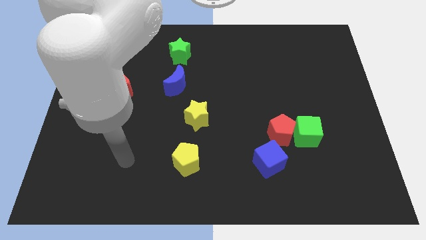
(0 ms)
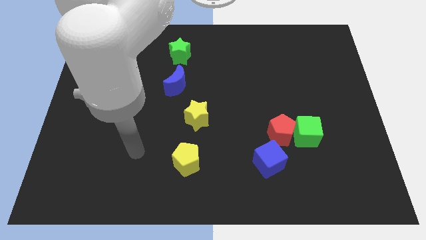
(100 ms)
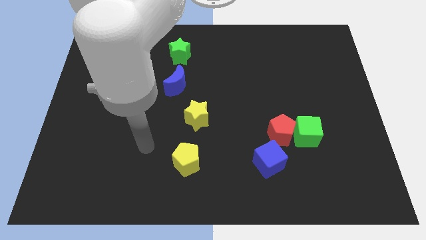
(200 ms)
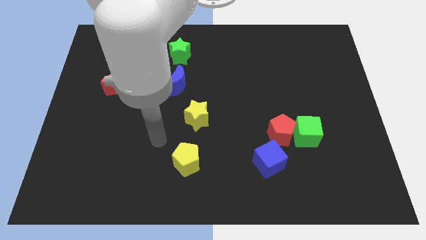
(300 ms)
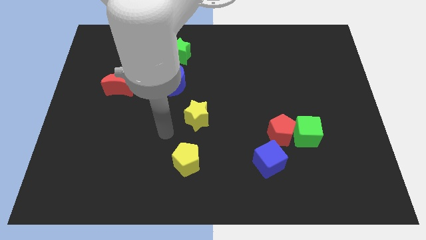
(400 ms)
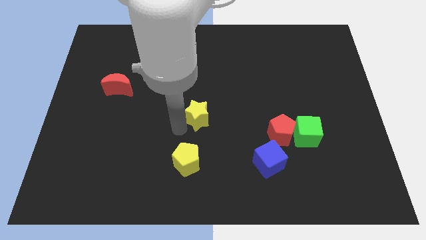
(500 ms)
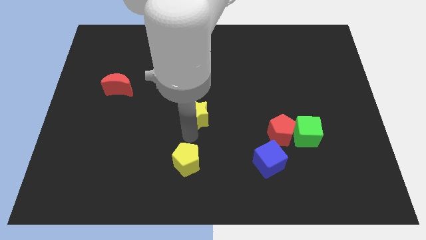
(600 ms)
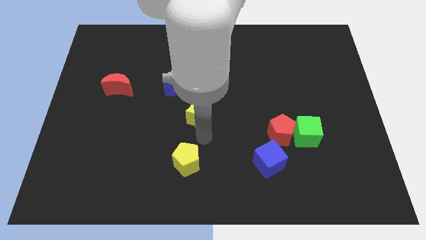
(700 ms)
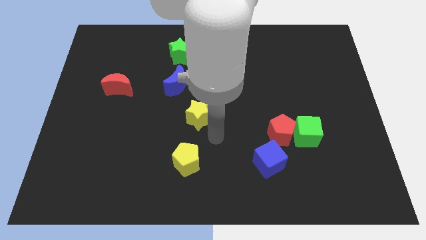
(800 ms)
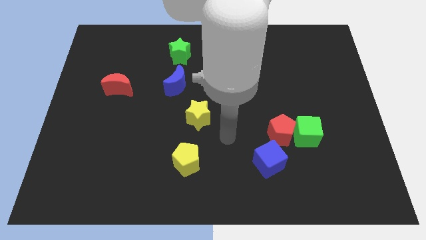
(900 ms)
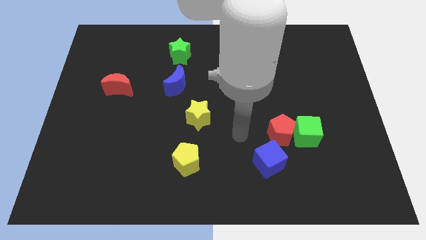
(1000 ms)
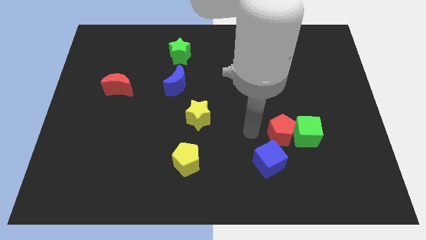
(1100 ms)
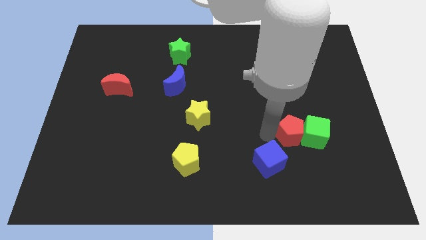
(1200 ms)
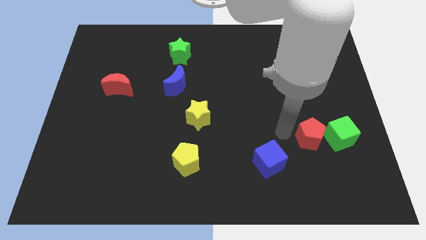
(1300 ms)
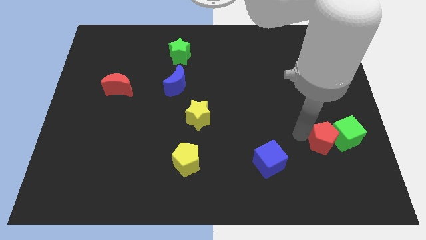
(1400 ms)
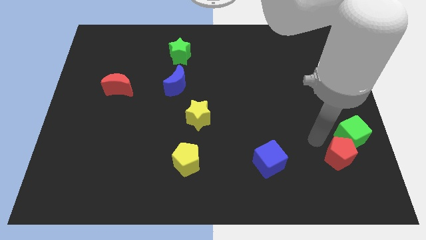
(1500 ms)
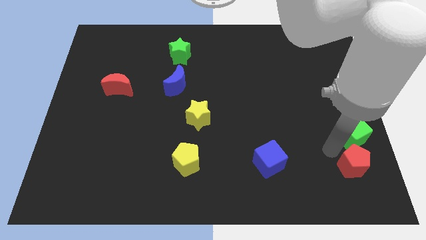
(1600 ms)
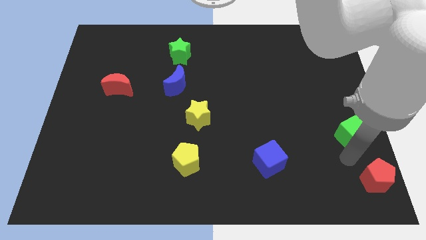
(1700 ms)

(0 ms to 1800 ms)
pull the green cube apart from the red pentagon

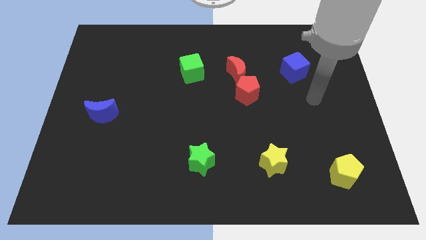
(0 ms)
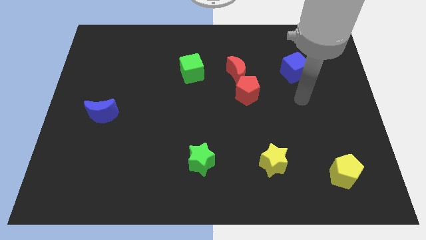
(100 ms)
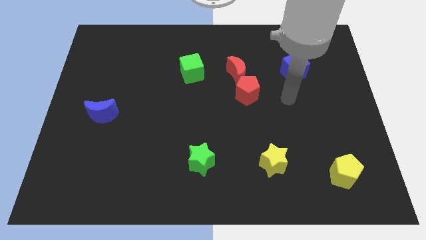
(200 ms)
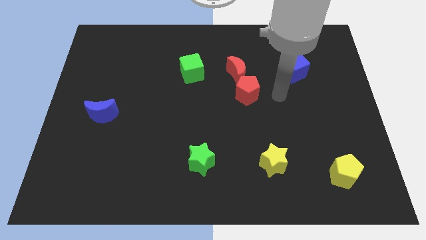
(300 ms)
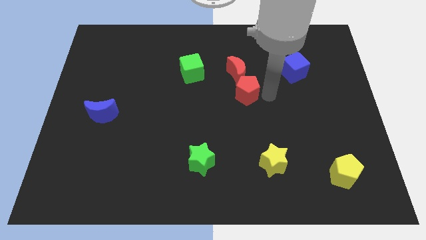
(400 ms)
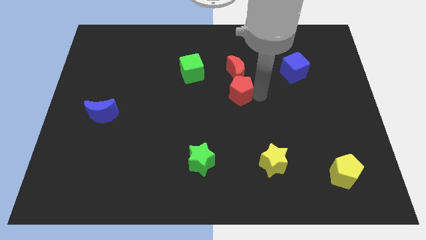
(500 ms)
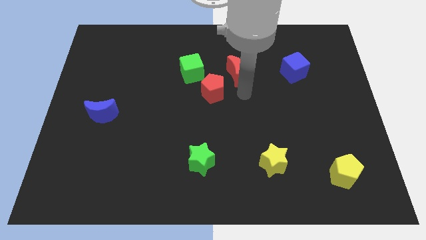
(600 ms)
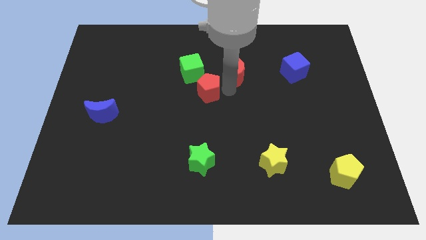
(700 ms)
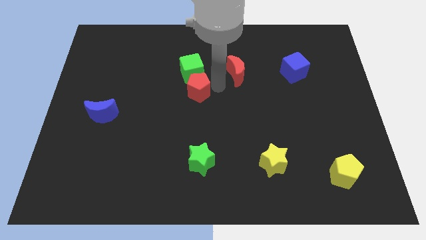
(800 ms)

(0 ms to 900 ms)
move the red moon away from the red pentagon

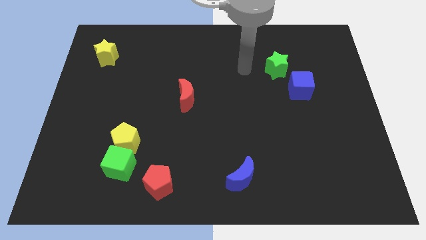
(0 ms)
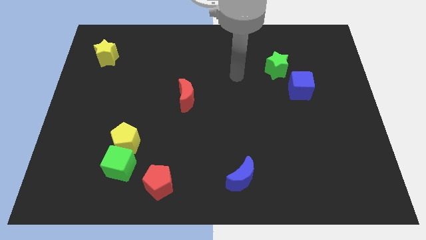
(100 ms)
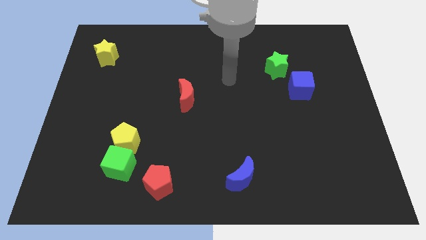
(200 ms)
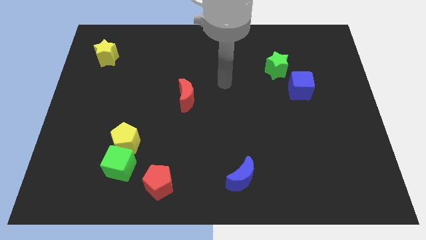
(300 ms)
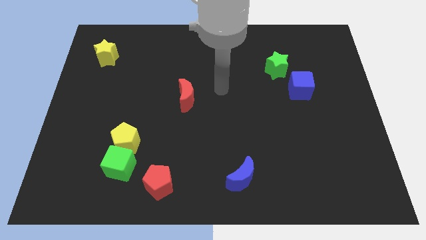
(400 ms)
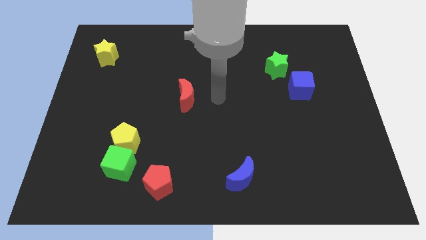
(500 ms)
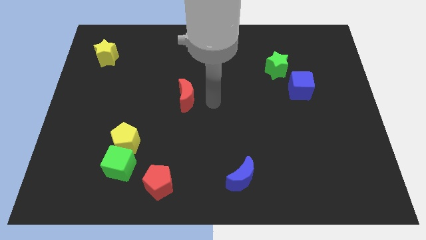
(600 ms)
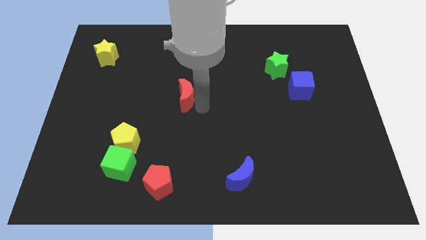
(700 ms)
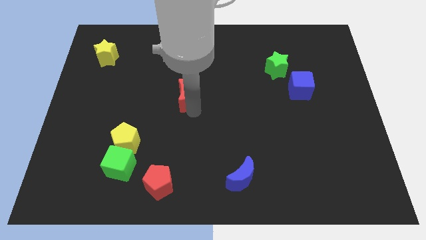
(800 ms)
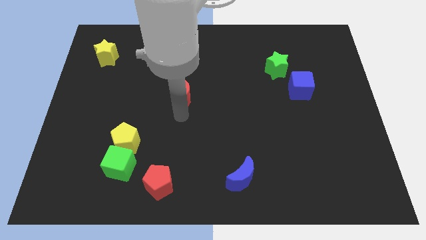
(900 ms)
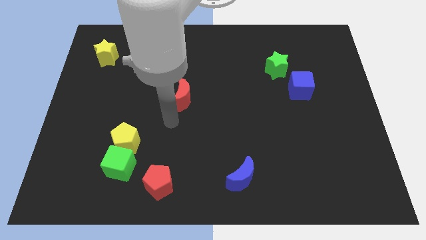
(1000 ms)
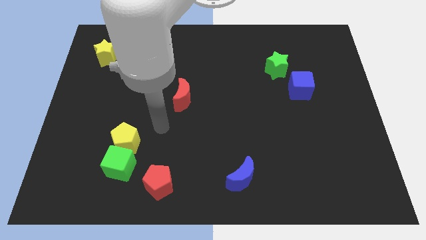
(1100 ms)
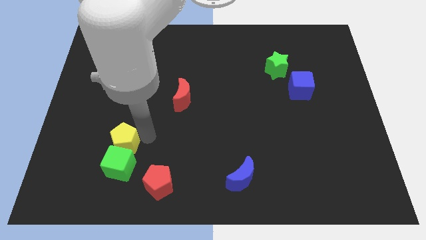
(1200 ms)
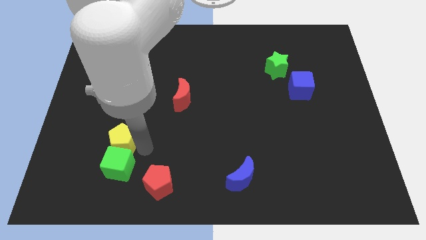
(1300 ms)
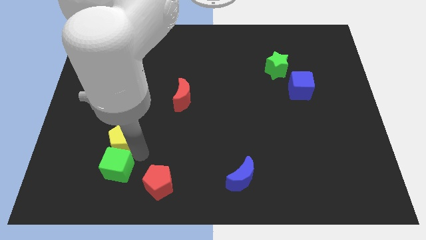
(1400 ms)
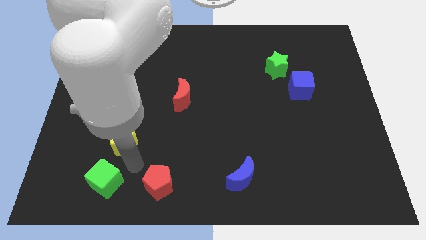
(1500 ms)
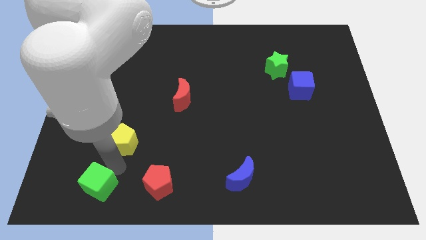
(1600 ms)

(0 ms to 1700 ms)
pull the yellow pentagon apart from the green cube

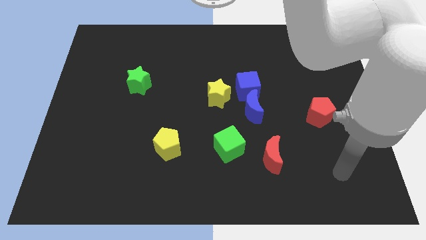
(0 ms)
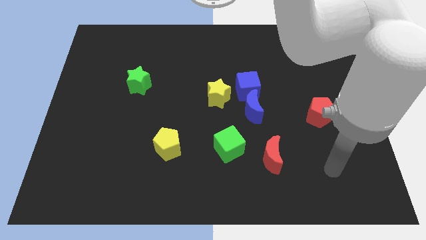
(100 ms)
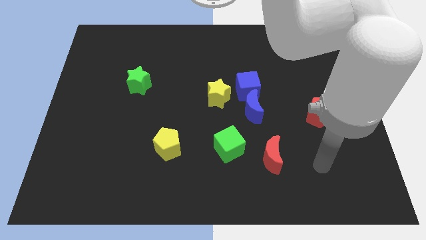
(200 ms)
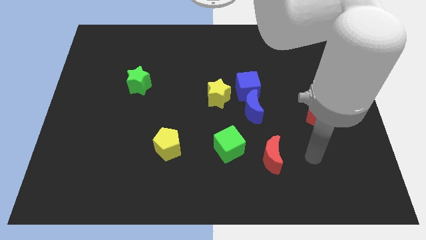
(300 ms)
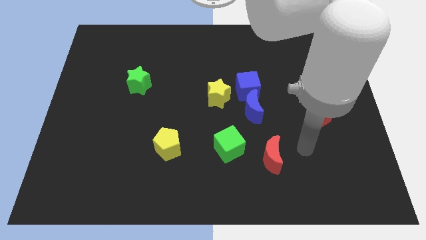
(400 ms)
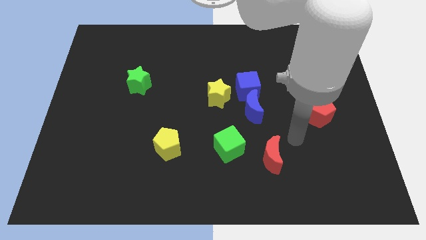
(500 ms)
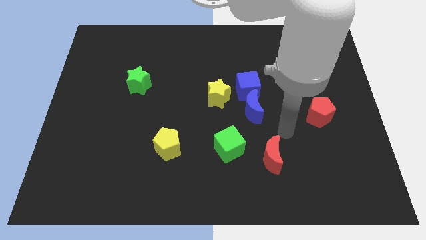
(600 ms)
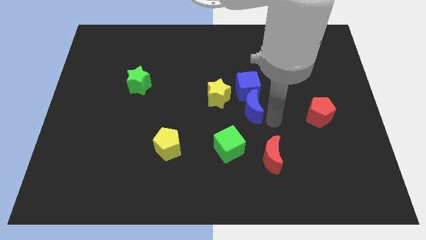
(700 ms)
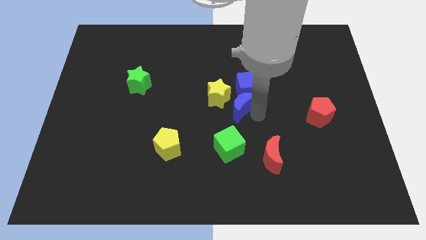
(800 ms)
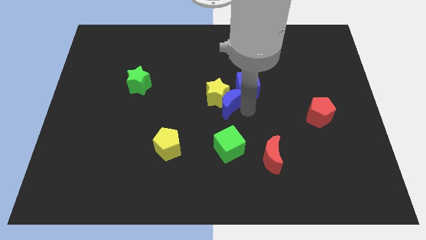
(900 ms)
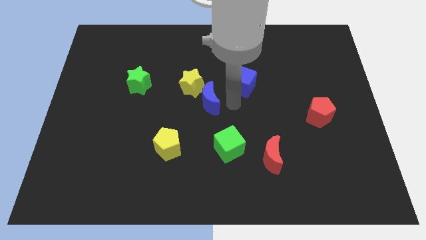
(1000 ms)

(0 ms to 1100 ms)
move the blue cube away from the blue moon and yellow star

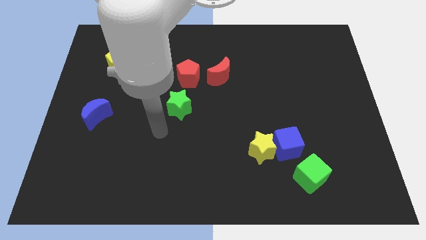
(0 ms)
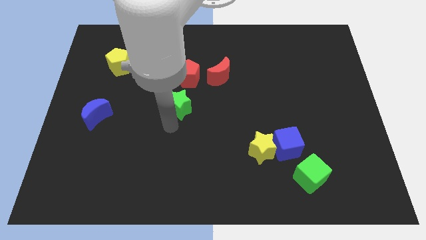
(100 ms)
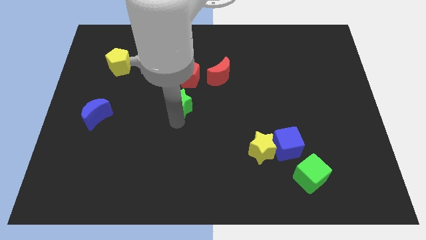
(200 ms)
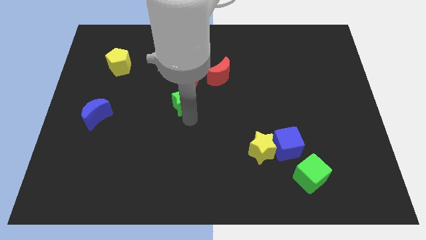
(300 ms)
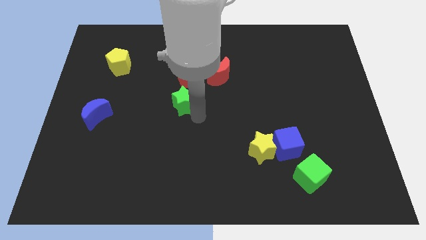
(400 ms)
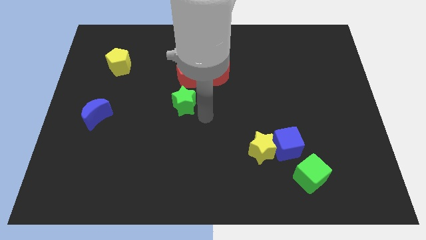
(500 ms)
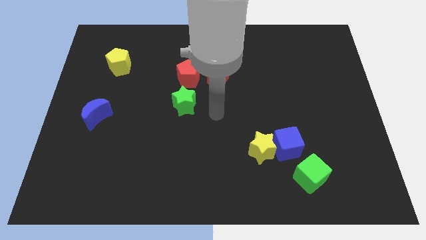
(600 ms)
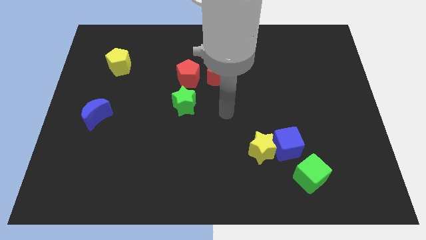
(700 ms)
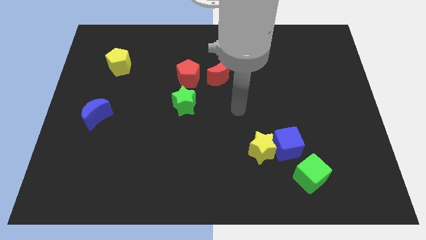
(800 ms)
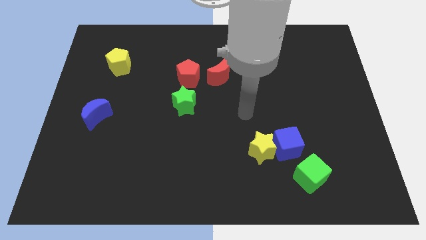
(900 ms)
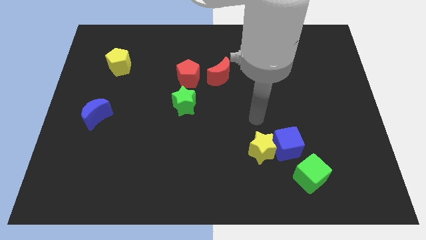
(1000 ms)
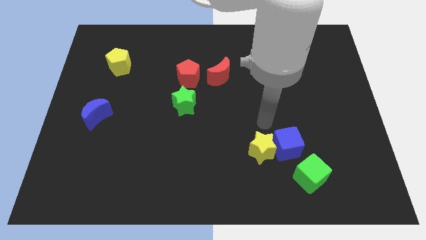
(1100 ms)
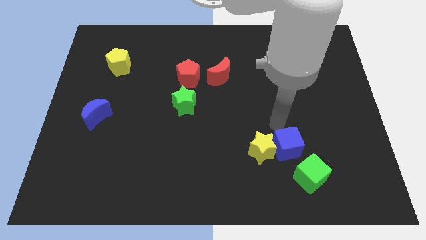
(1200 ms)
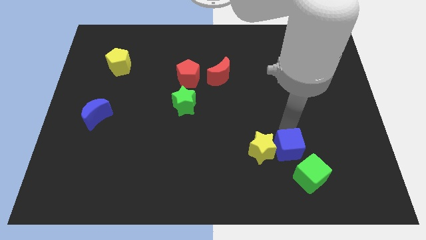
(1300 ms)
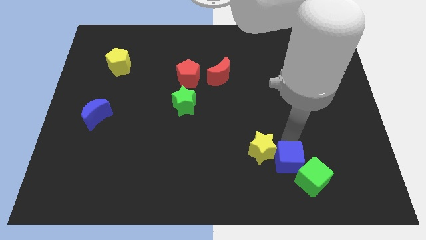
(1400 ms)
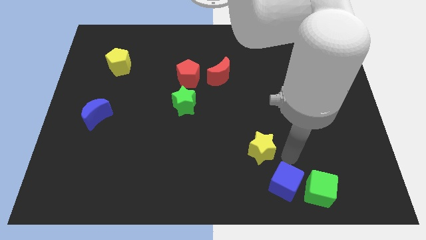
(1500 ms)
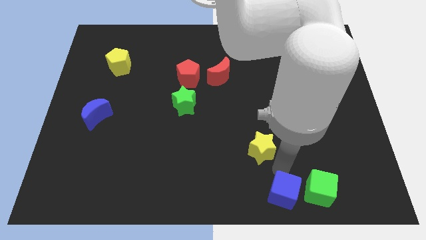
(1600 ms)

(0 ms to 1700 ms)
move the yellow star away from the blue cube

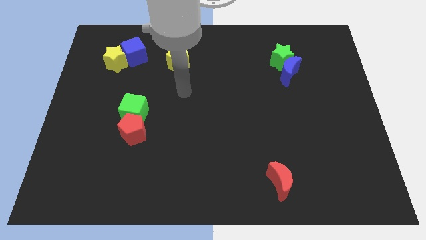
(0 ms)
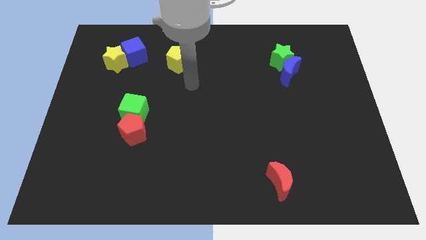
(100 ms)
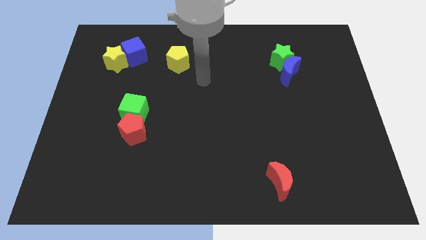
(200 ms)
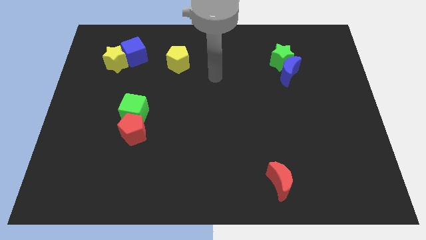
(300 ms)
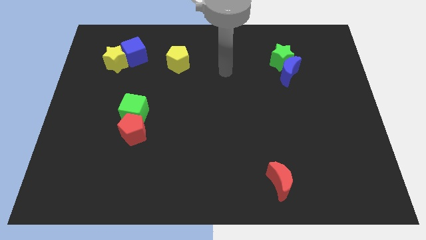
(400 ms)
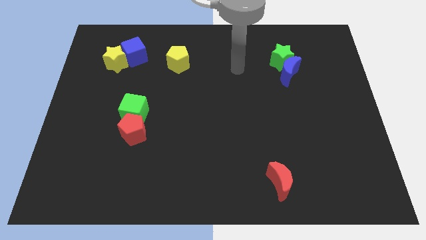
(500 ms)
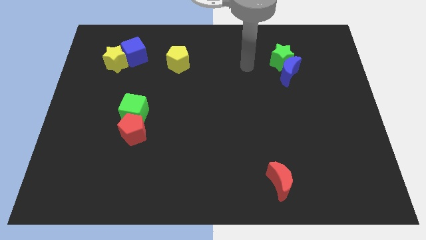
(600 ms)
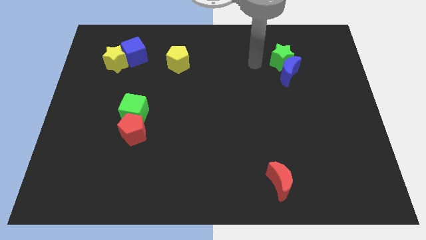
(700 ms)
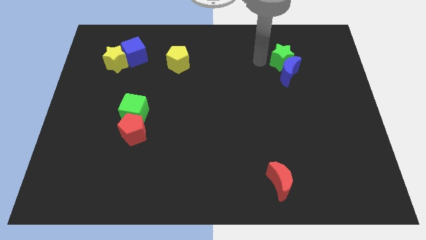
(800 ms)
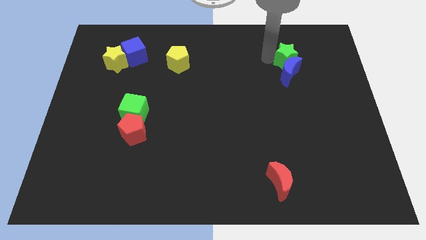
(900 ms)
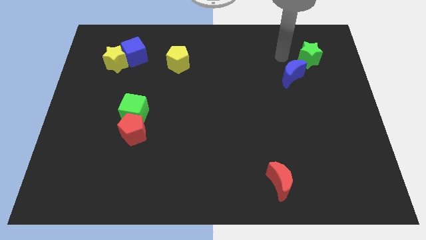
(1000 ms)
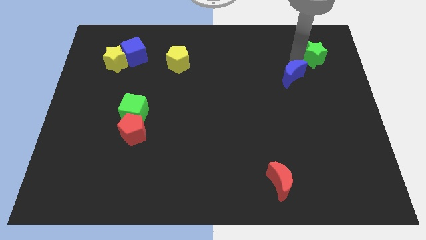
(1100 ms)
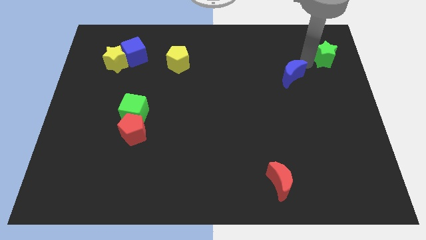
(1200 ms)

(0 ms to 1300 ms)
move the blue moon away from the green star

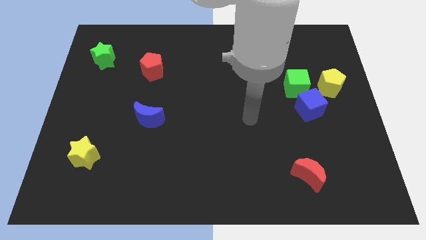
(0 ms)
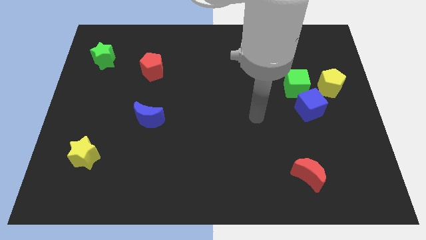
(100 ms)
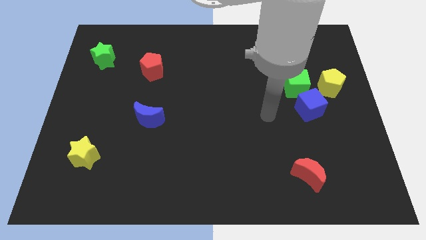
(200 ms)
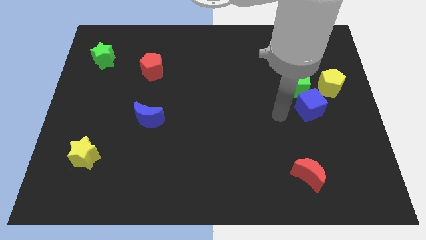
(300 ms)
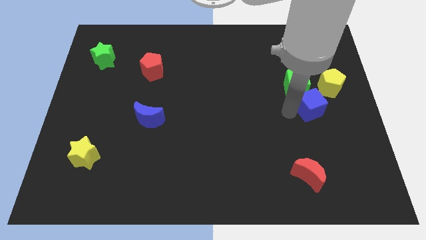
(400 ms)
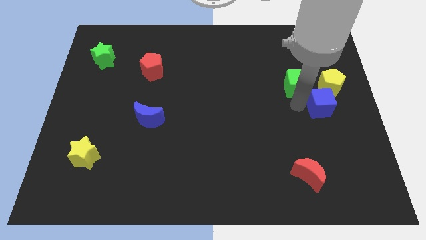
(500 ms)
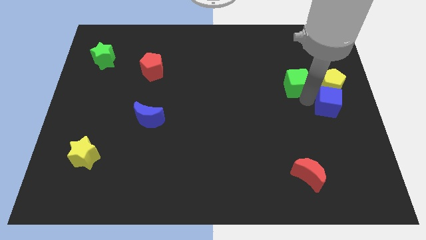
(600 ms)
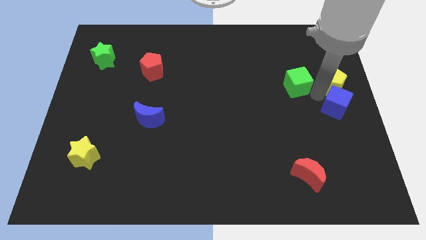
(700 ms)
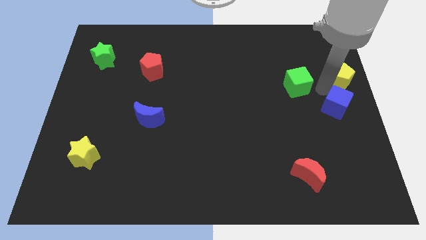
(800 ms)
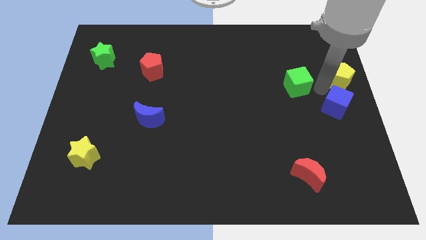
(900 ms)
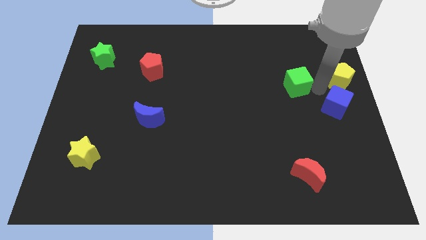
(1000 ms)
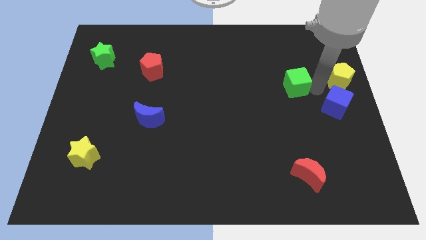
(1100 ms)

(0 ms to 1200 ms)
pull the green cube apart from the blue cube and yellow pentagon
